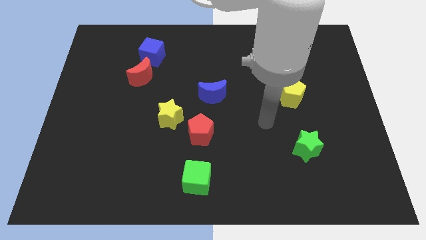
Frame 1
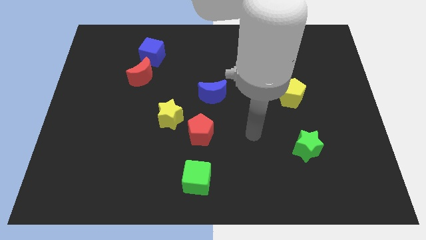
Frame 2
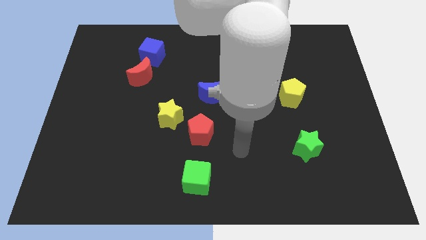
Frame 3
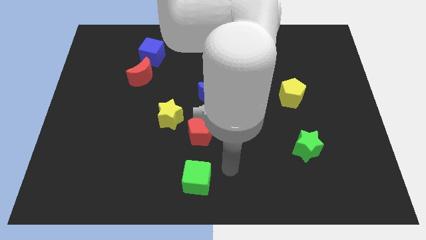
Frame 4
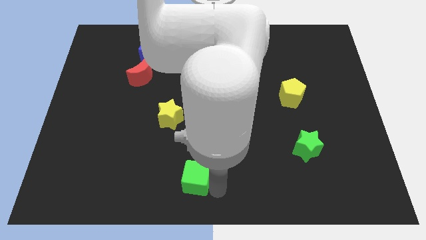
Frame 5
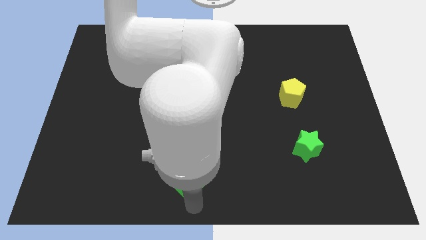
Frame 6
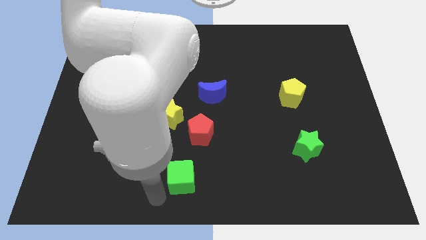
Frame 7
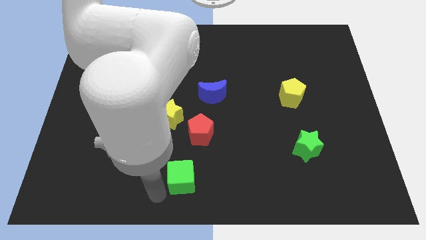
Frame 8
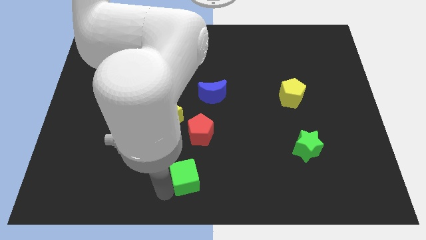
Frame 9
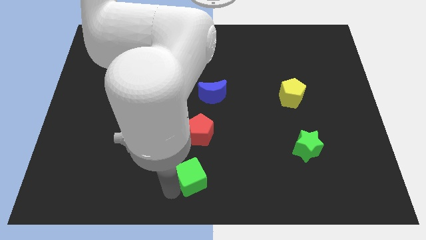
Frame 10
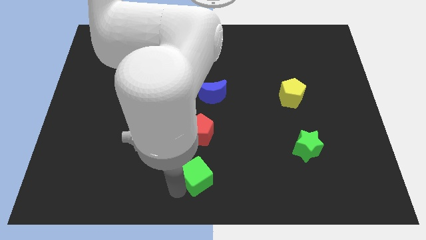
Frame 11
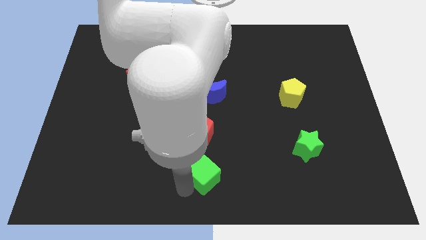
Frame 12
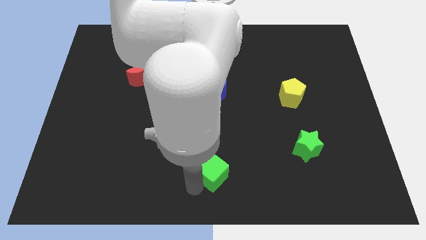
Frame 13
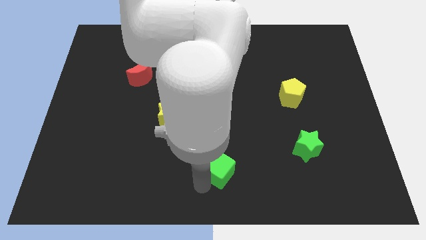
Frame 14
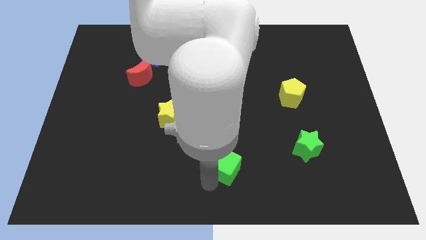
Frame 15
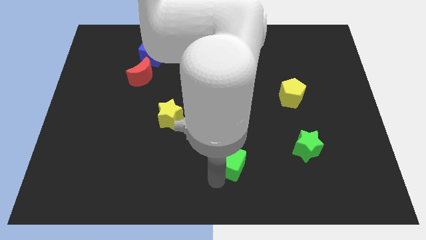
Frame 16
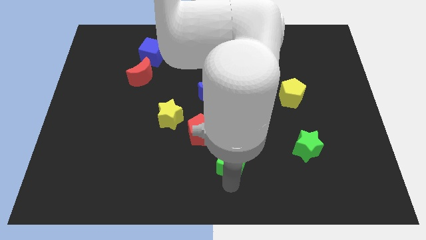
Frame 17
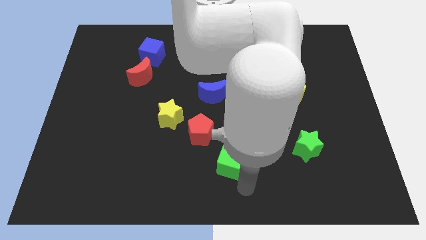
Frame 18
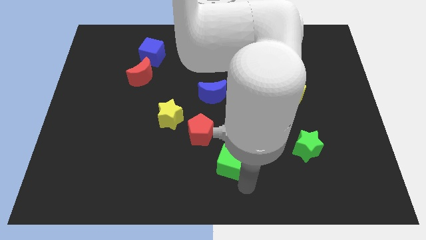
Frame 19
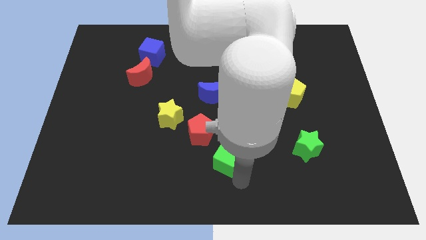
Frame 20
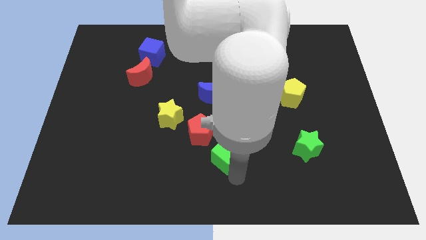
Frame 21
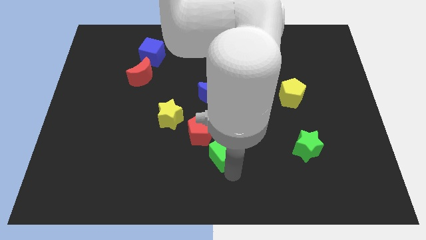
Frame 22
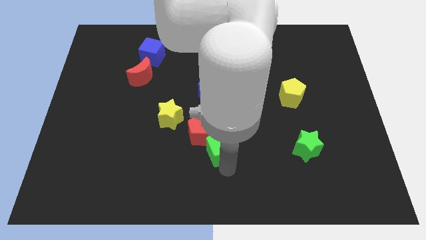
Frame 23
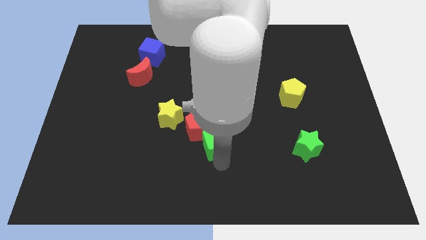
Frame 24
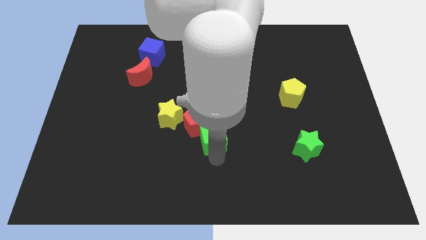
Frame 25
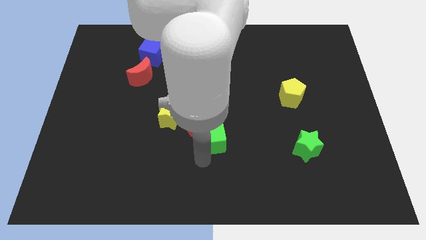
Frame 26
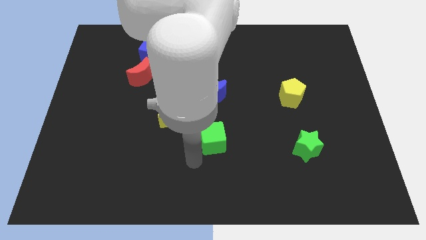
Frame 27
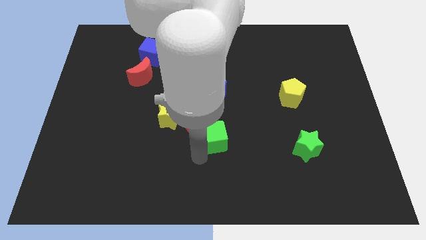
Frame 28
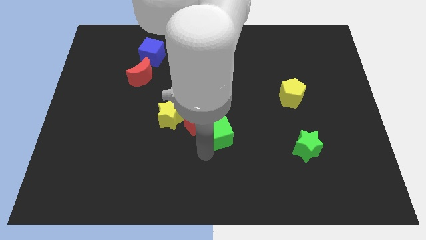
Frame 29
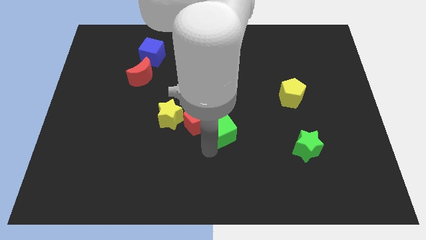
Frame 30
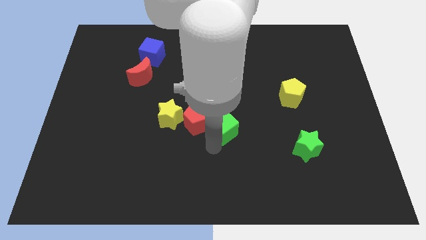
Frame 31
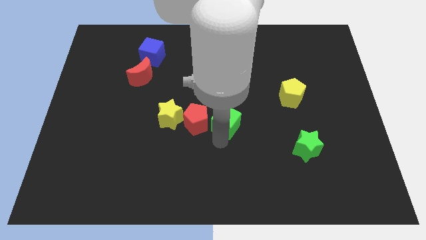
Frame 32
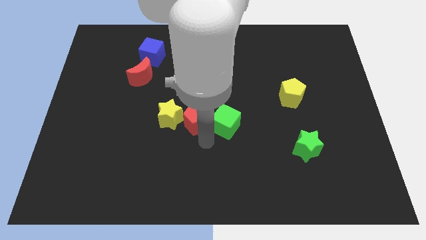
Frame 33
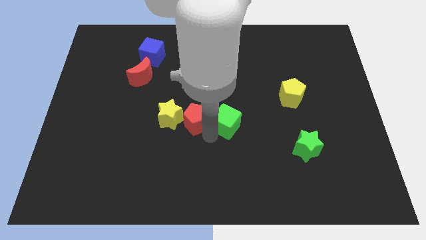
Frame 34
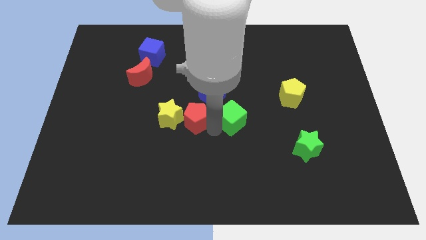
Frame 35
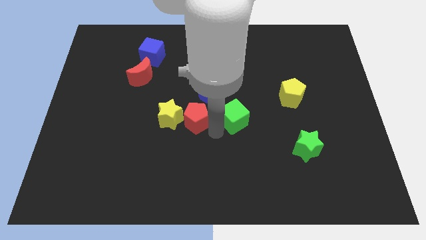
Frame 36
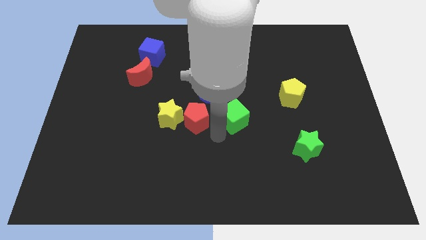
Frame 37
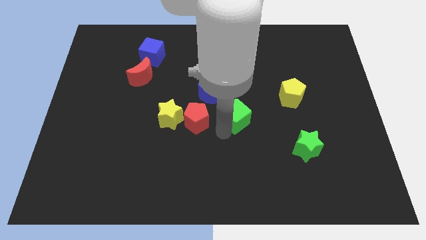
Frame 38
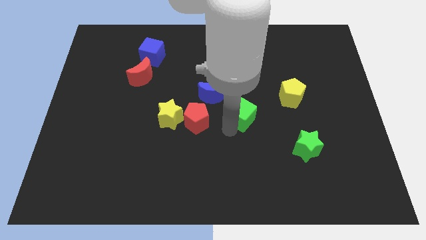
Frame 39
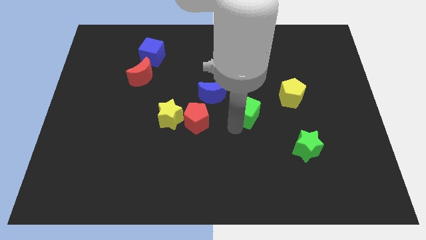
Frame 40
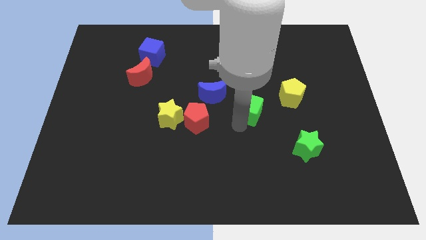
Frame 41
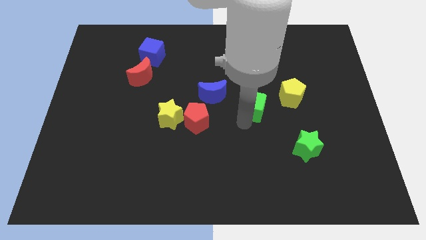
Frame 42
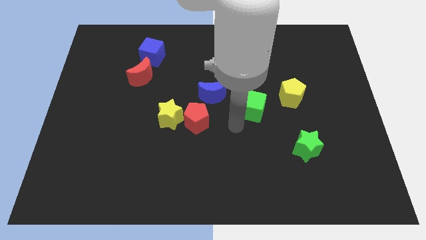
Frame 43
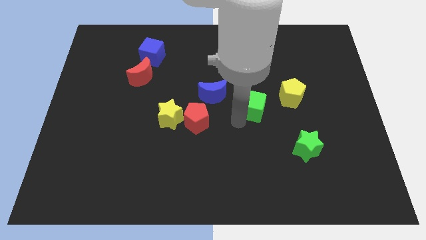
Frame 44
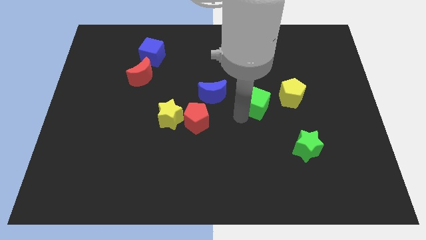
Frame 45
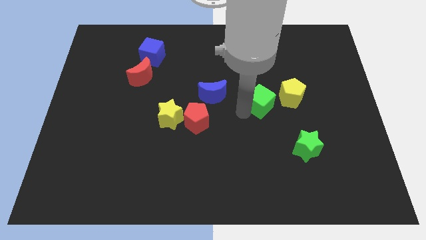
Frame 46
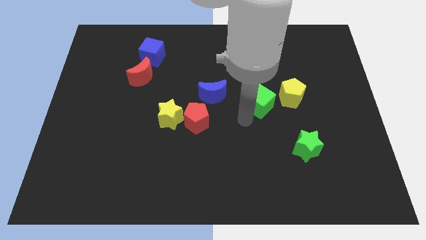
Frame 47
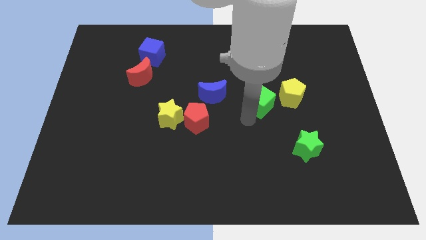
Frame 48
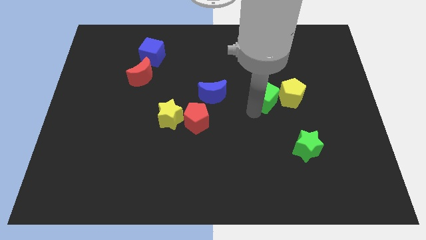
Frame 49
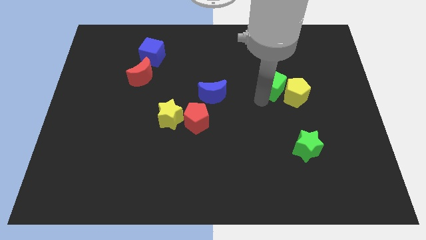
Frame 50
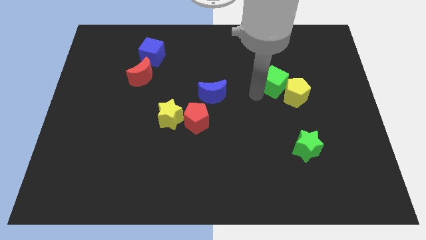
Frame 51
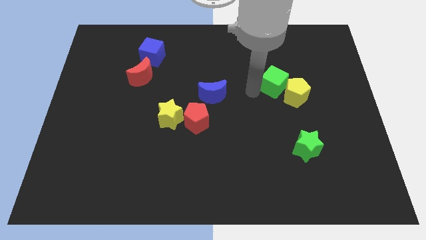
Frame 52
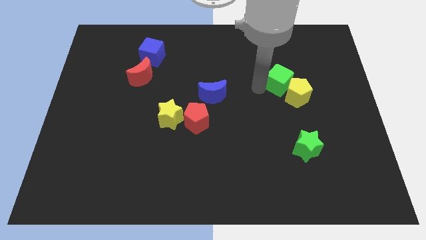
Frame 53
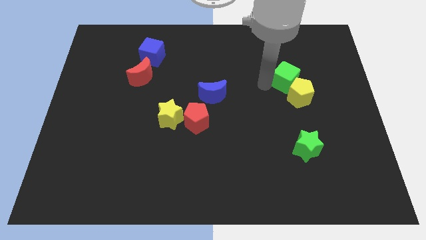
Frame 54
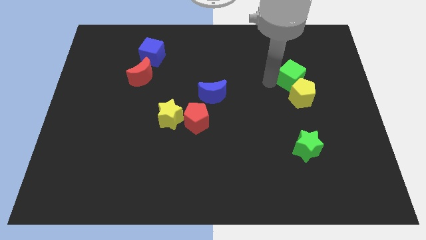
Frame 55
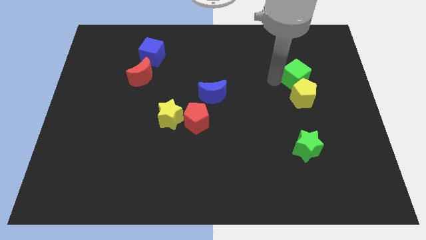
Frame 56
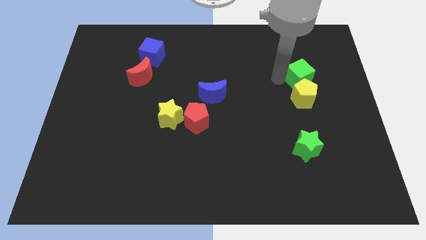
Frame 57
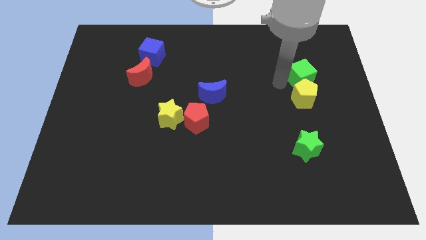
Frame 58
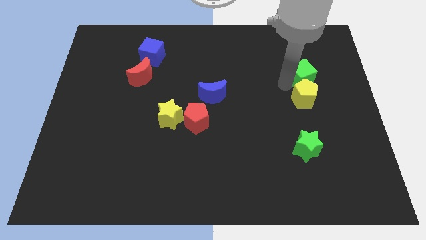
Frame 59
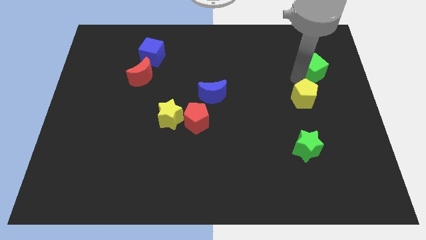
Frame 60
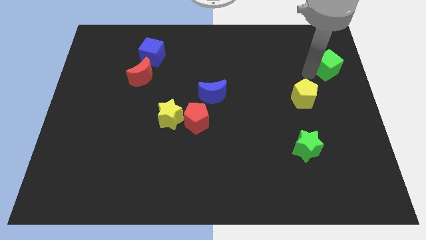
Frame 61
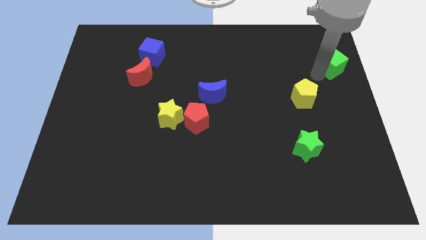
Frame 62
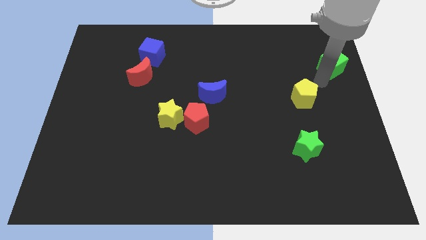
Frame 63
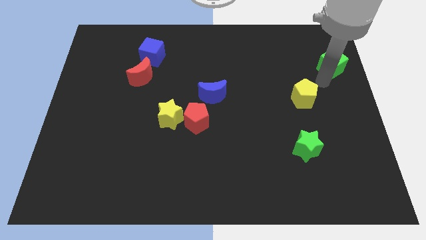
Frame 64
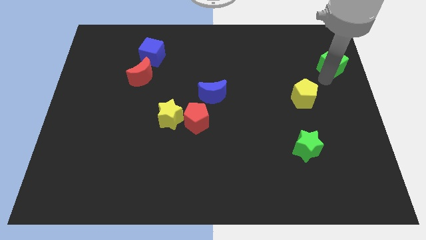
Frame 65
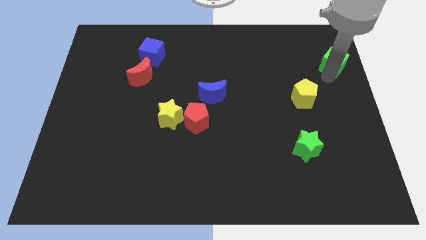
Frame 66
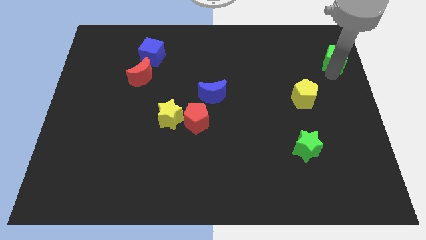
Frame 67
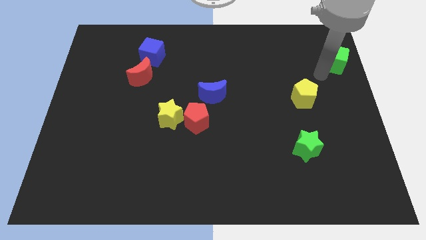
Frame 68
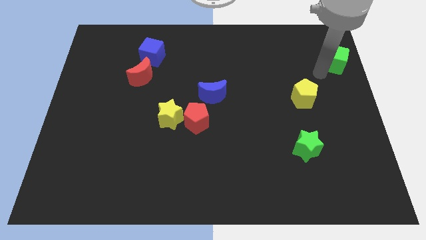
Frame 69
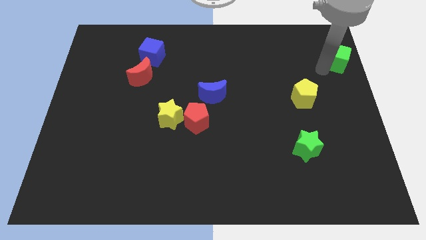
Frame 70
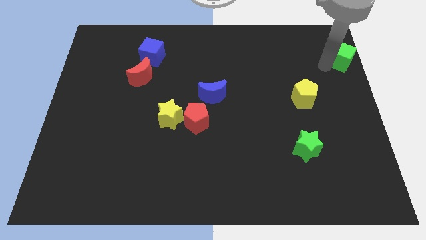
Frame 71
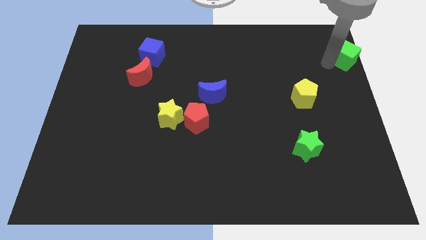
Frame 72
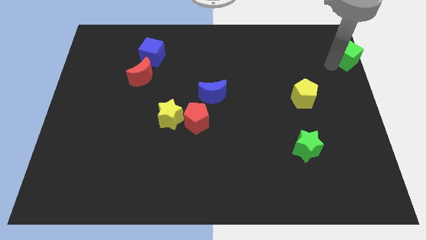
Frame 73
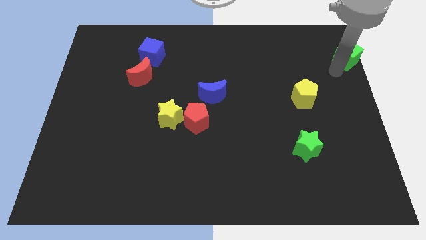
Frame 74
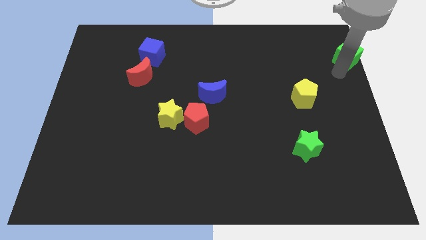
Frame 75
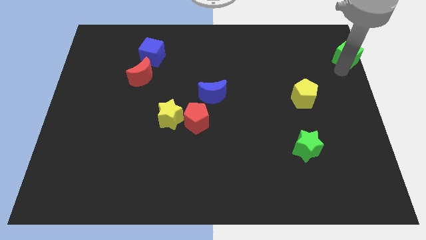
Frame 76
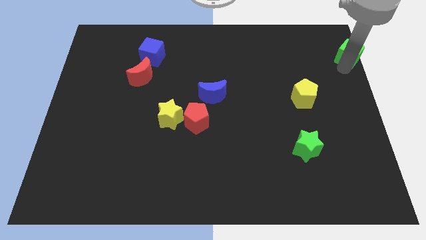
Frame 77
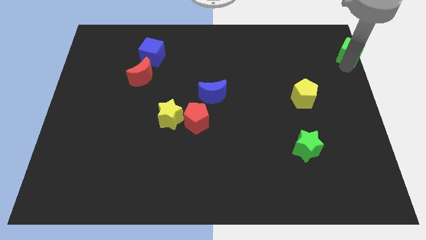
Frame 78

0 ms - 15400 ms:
slide the green cube to the top right corner
